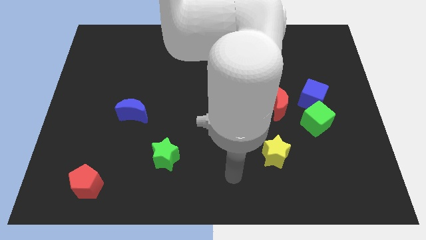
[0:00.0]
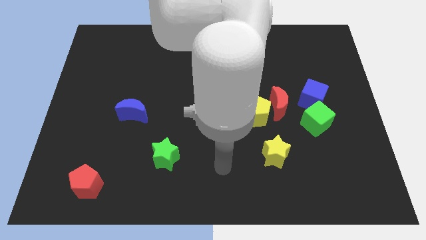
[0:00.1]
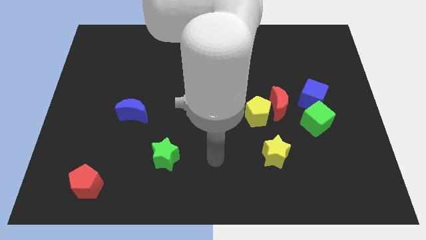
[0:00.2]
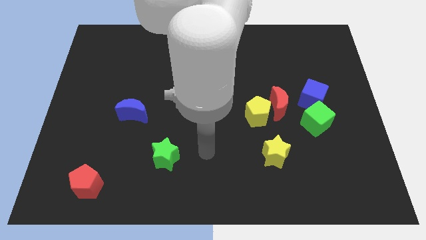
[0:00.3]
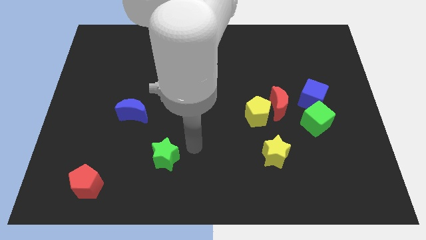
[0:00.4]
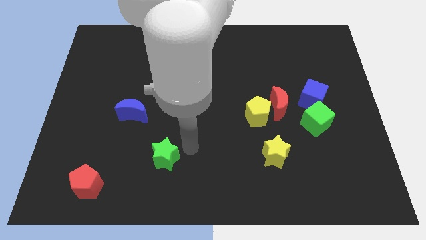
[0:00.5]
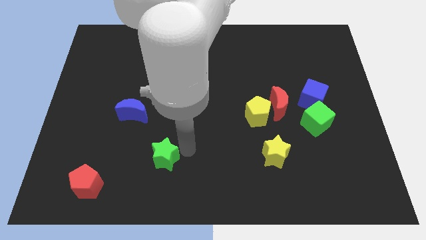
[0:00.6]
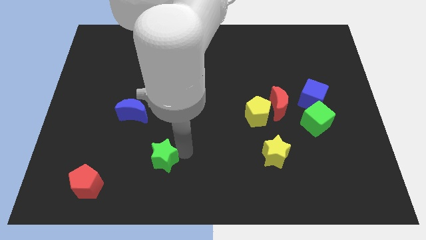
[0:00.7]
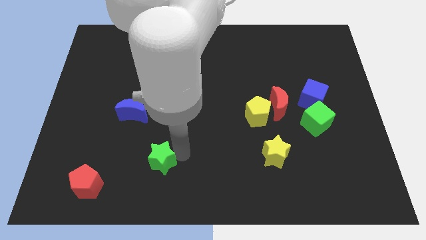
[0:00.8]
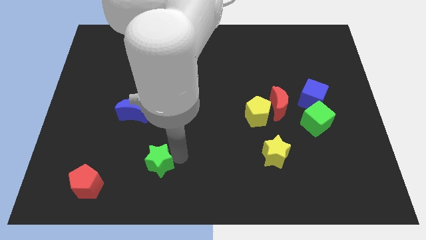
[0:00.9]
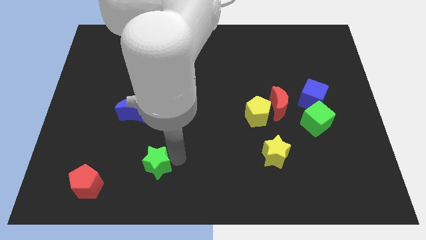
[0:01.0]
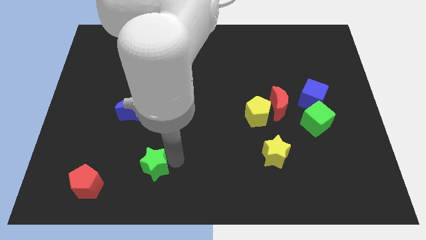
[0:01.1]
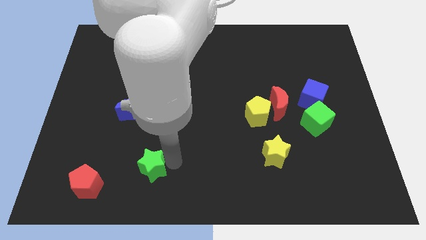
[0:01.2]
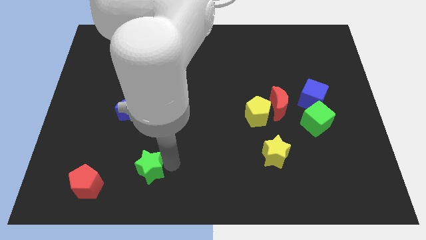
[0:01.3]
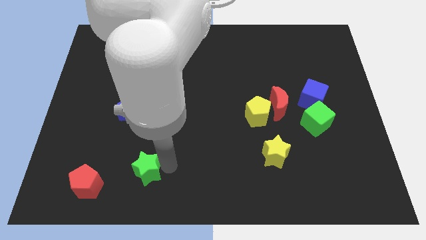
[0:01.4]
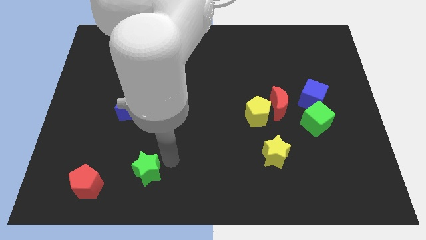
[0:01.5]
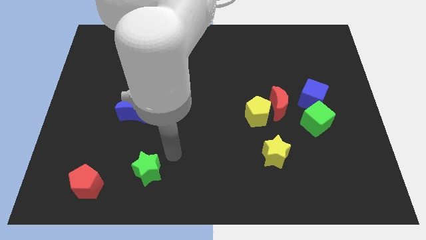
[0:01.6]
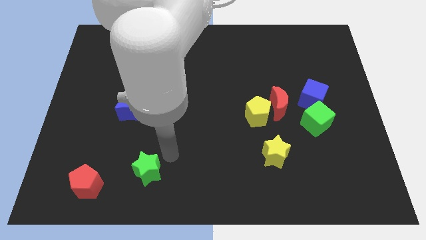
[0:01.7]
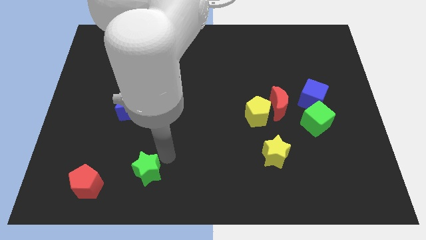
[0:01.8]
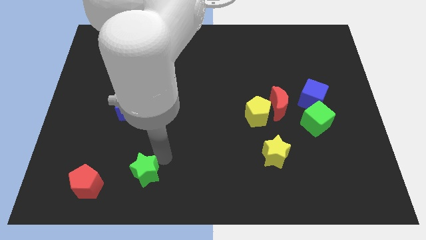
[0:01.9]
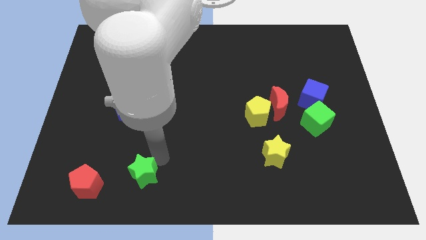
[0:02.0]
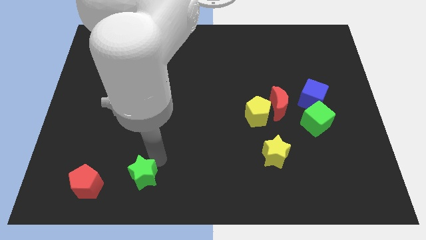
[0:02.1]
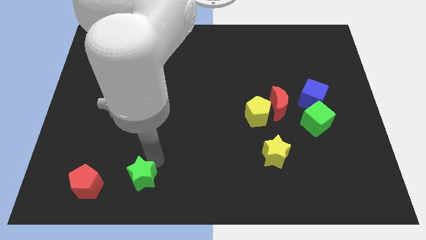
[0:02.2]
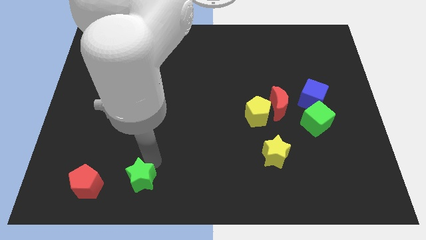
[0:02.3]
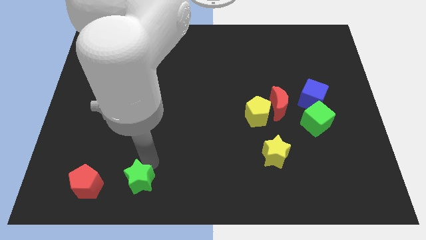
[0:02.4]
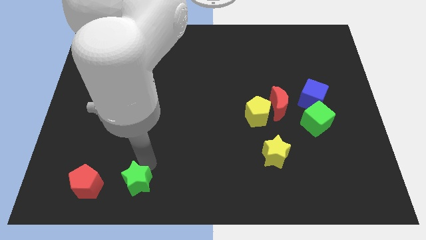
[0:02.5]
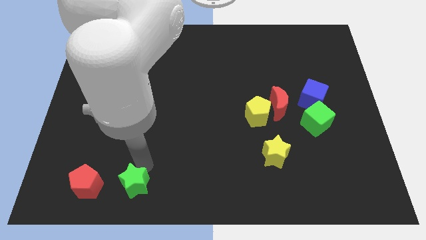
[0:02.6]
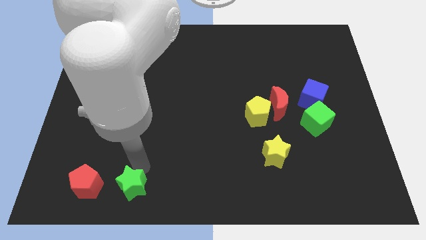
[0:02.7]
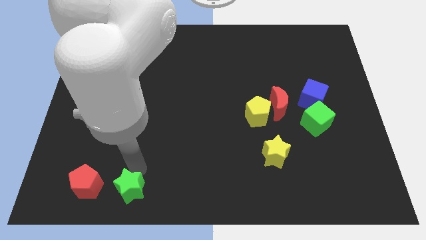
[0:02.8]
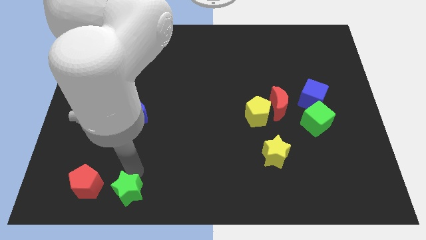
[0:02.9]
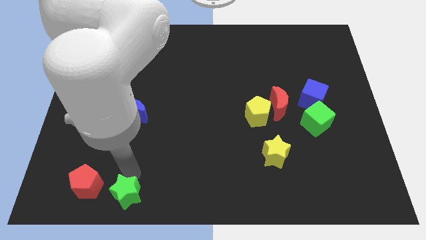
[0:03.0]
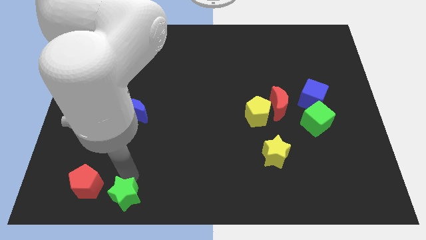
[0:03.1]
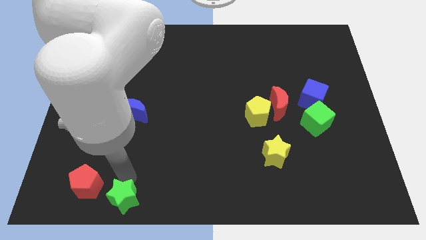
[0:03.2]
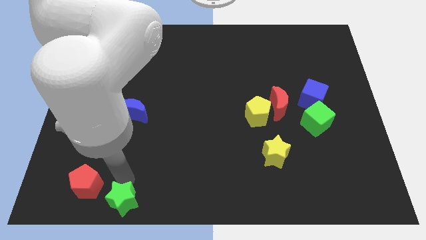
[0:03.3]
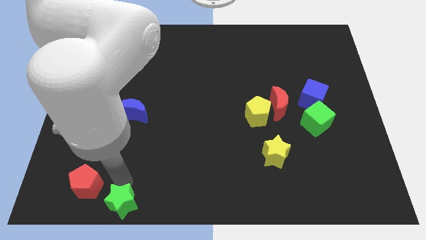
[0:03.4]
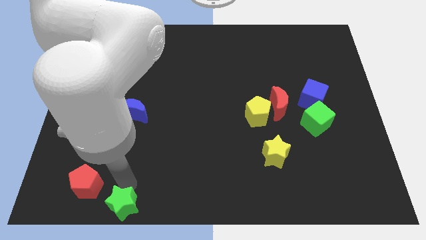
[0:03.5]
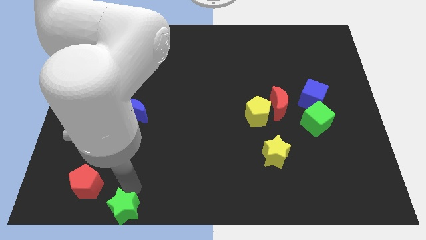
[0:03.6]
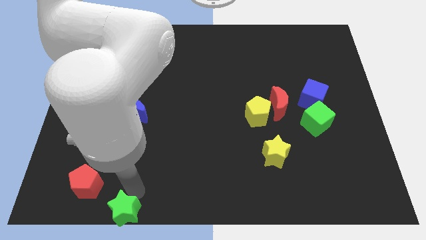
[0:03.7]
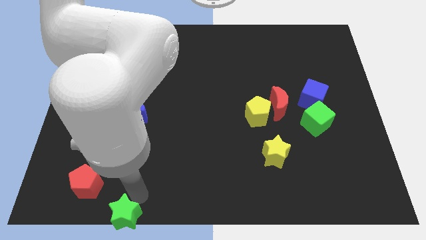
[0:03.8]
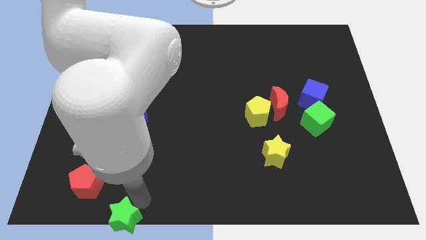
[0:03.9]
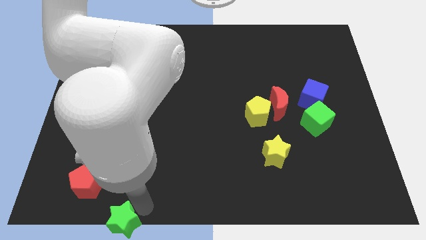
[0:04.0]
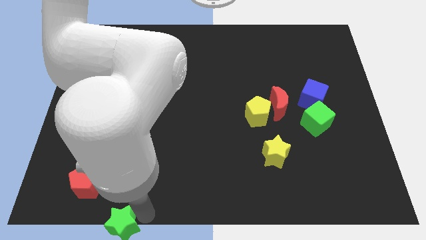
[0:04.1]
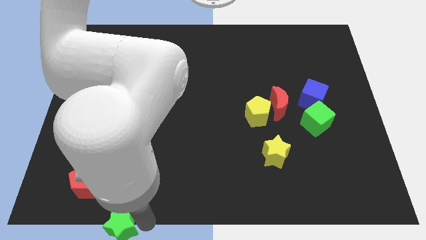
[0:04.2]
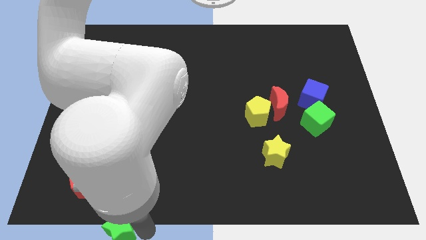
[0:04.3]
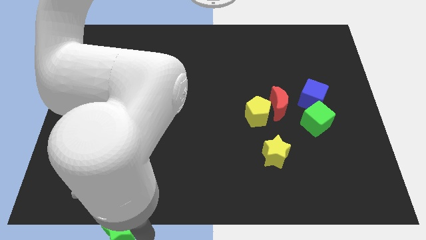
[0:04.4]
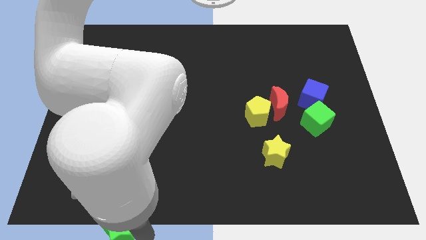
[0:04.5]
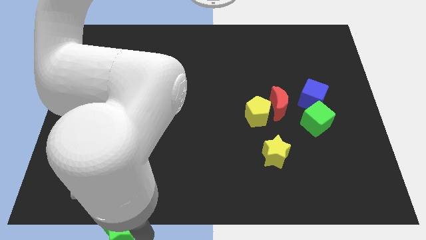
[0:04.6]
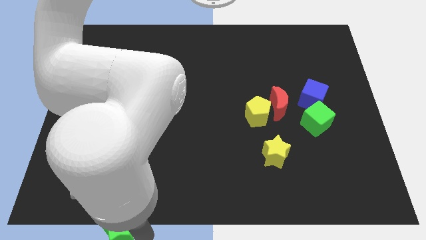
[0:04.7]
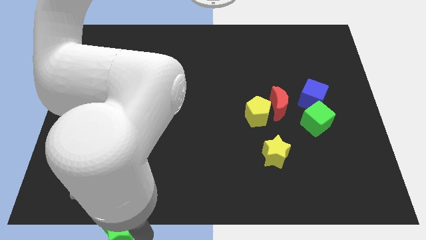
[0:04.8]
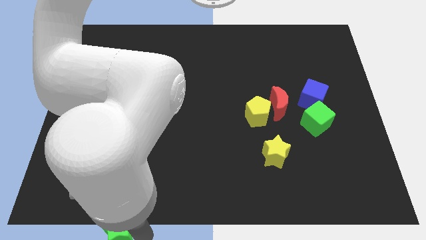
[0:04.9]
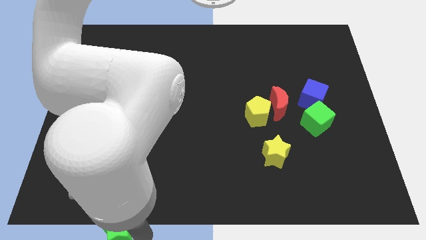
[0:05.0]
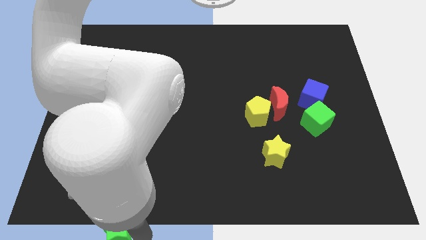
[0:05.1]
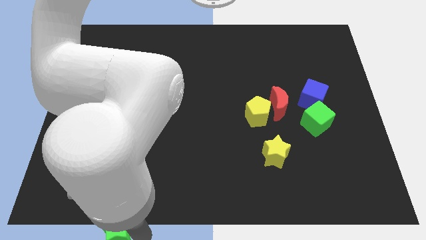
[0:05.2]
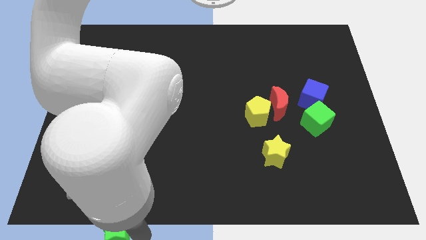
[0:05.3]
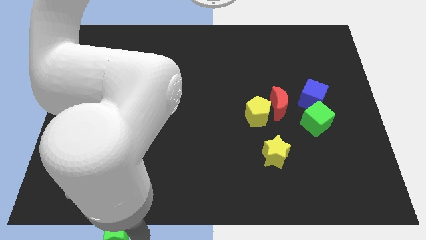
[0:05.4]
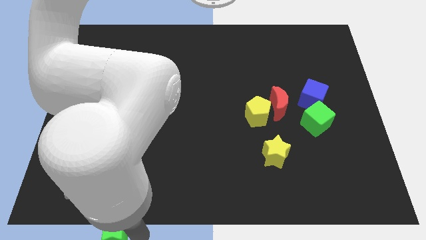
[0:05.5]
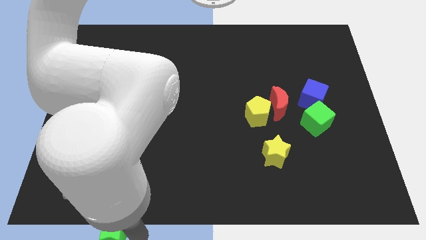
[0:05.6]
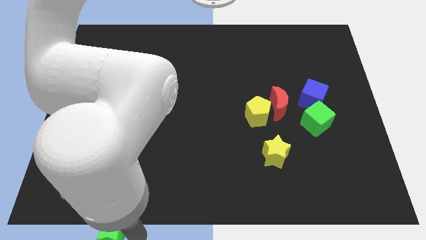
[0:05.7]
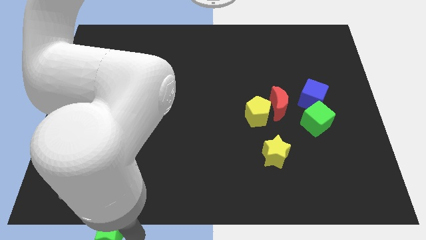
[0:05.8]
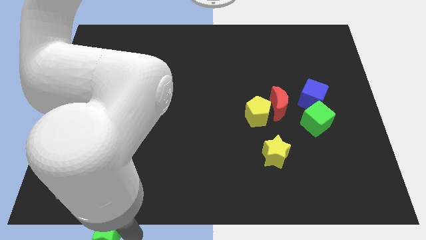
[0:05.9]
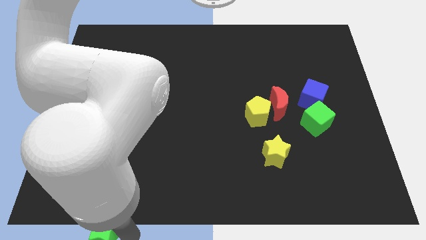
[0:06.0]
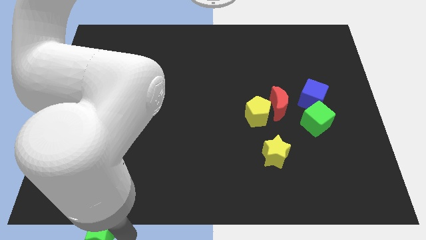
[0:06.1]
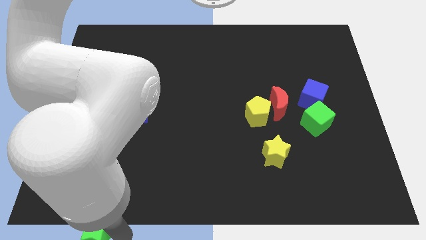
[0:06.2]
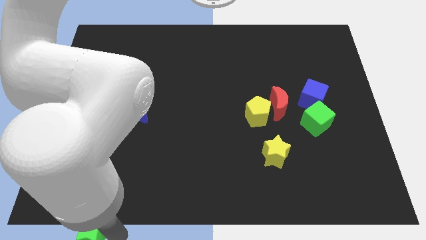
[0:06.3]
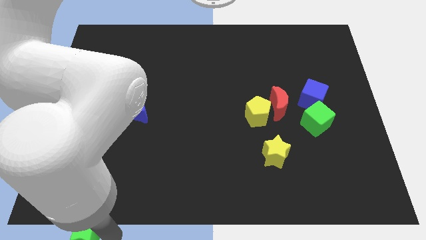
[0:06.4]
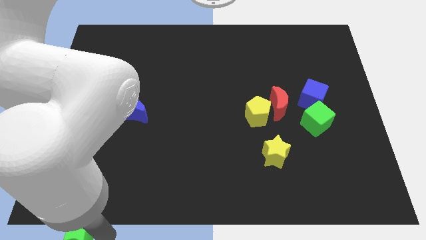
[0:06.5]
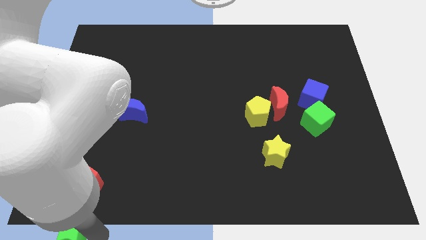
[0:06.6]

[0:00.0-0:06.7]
slide the green star to the bottom left
